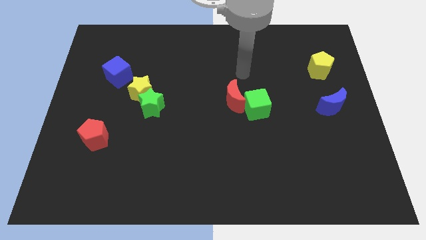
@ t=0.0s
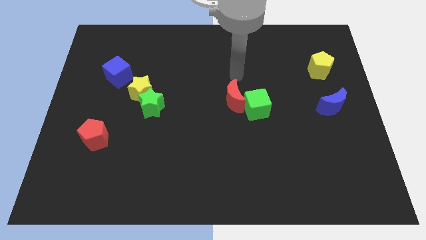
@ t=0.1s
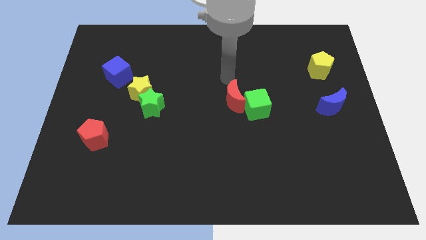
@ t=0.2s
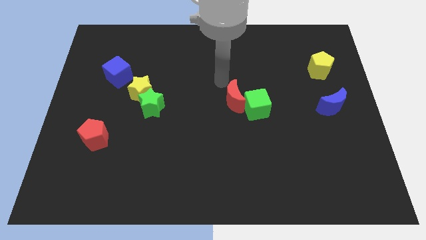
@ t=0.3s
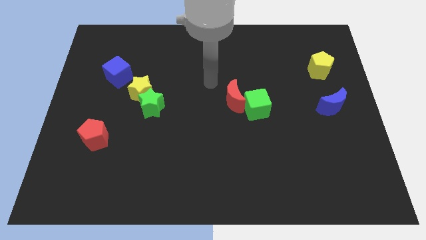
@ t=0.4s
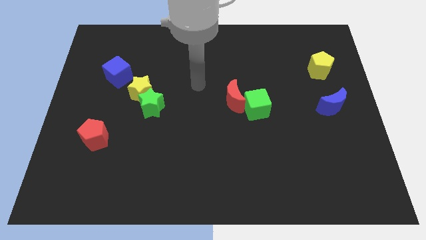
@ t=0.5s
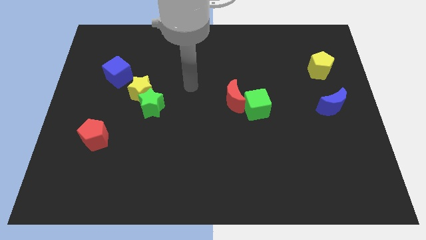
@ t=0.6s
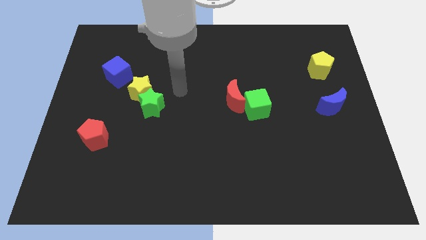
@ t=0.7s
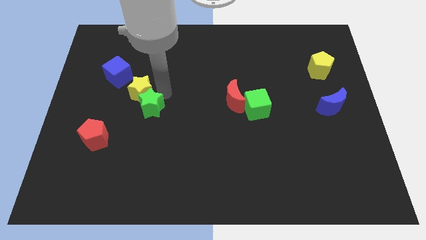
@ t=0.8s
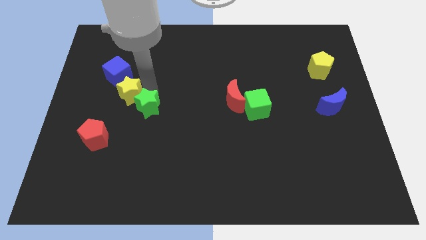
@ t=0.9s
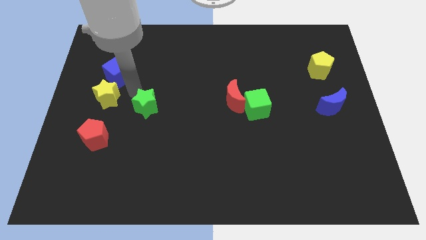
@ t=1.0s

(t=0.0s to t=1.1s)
pull the green star apart from the yellow star

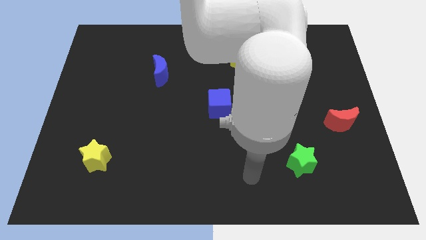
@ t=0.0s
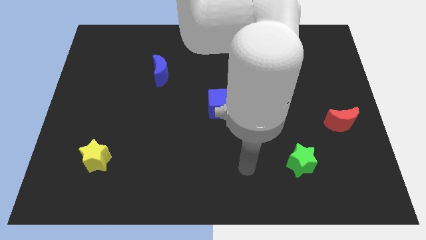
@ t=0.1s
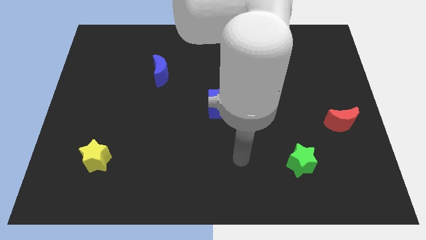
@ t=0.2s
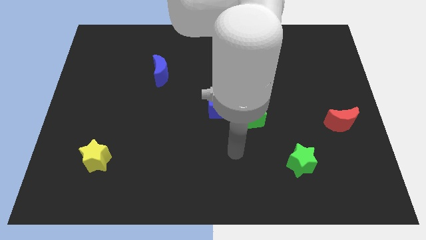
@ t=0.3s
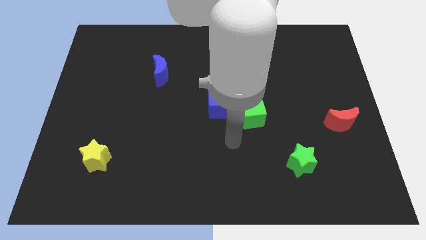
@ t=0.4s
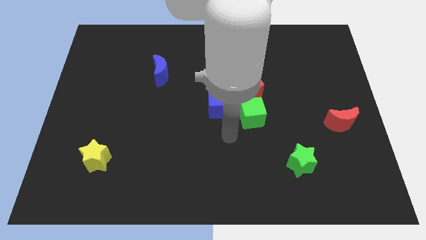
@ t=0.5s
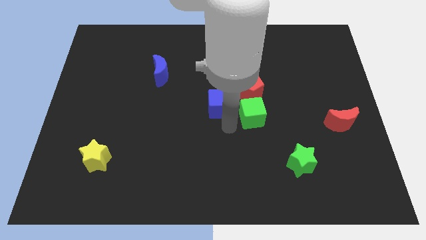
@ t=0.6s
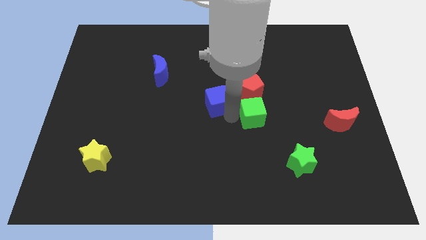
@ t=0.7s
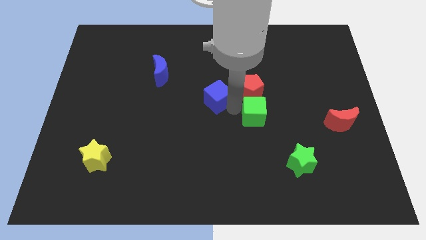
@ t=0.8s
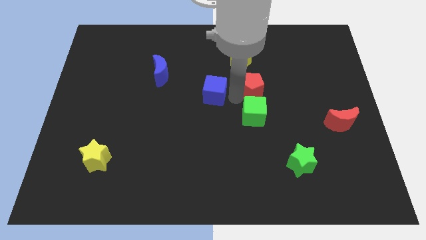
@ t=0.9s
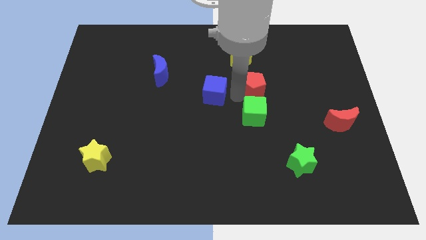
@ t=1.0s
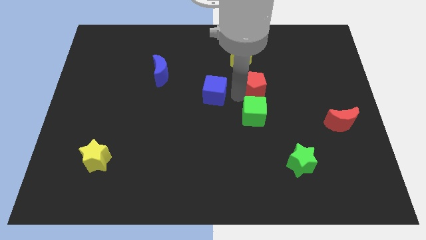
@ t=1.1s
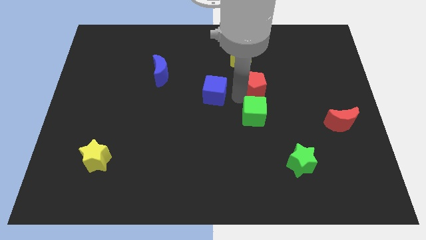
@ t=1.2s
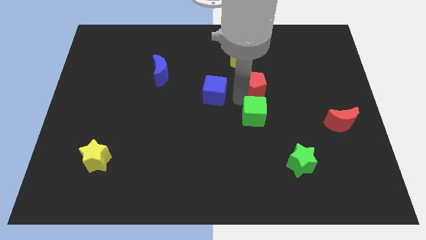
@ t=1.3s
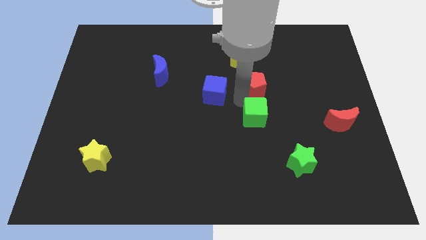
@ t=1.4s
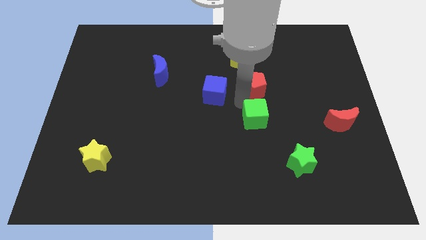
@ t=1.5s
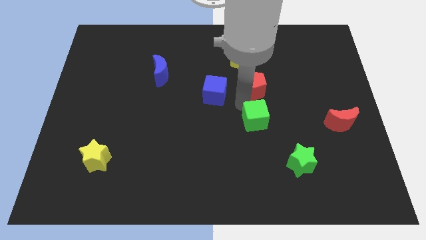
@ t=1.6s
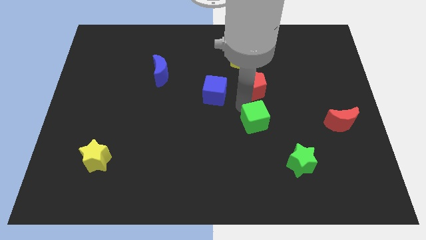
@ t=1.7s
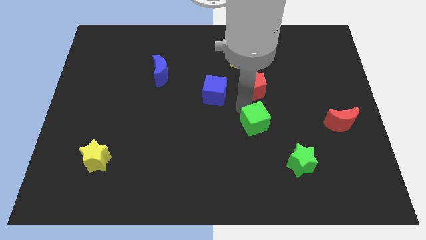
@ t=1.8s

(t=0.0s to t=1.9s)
separate the green cube from the red pentagon and blue cube

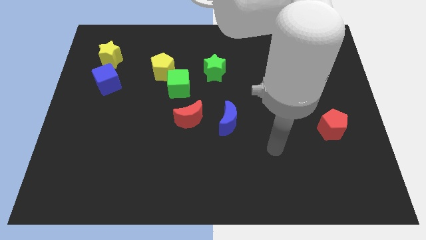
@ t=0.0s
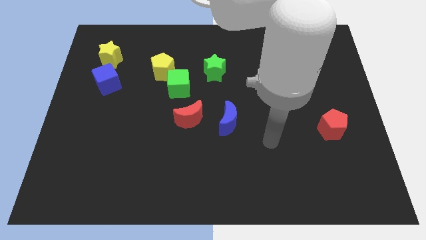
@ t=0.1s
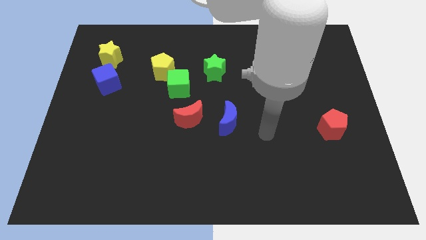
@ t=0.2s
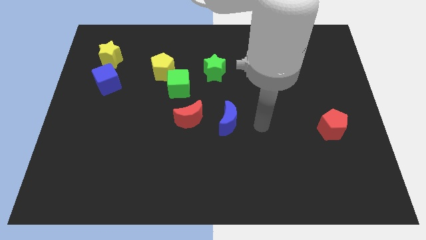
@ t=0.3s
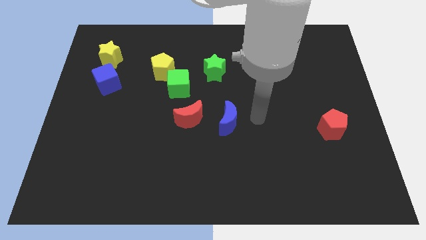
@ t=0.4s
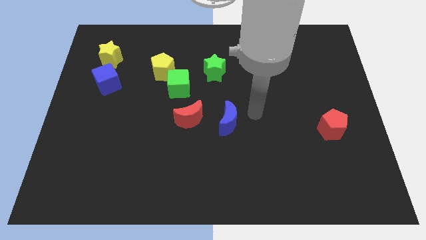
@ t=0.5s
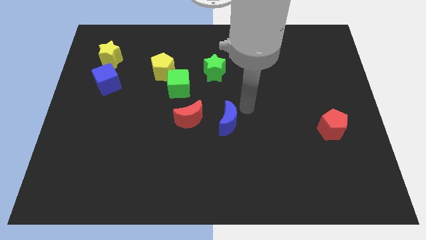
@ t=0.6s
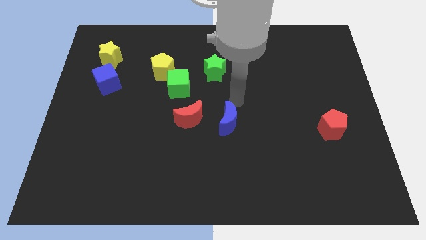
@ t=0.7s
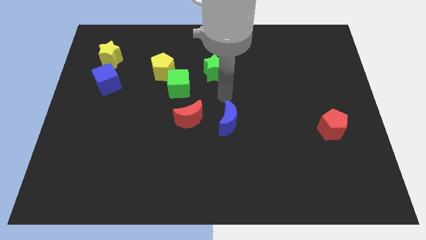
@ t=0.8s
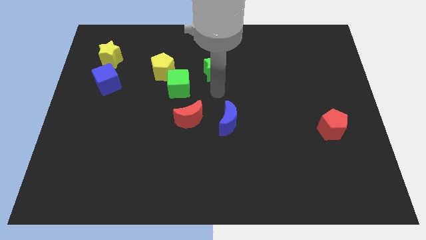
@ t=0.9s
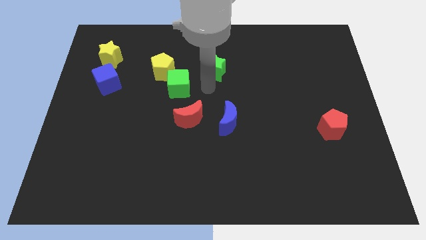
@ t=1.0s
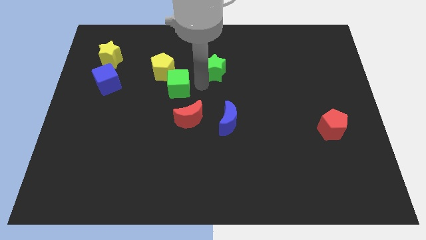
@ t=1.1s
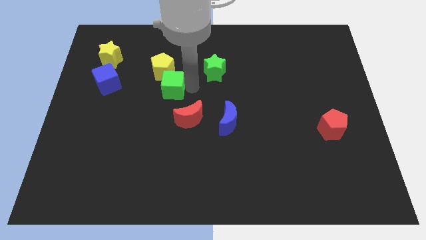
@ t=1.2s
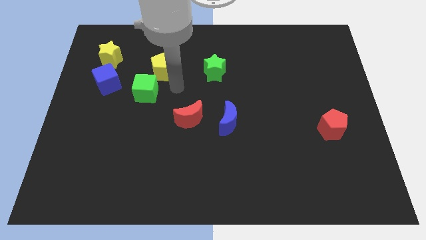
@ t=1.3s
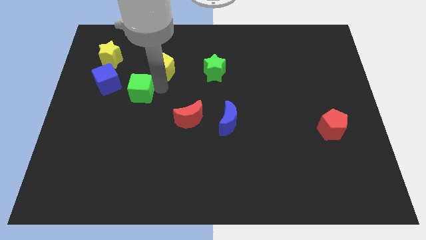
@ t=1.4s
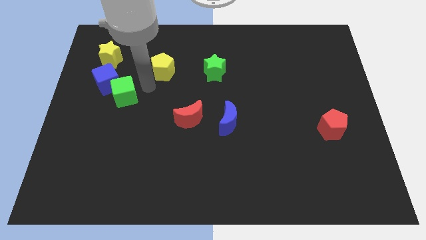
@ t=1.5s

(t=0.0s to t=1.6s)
move the yellow pentagon away from the green cube

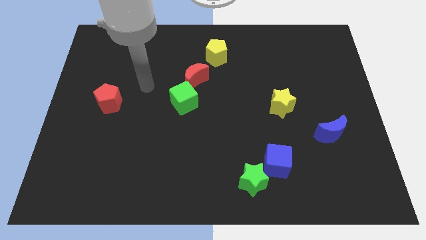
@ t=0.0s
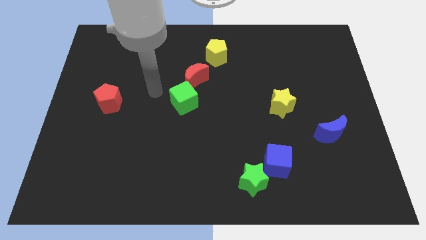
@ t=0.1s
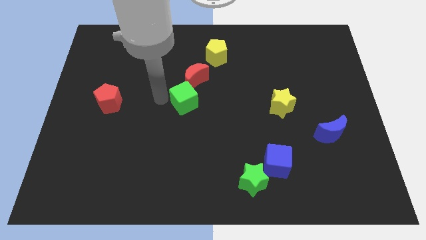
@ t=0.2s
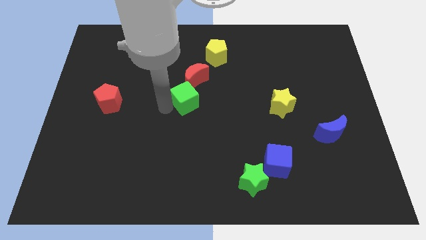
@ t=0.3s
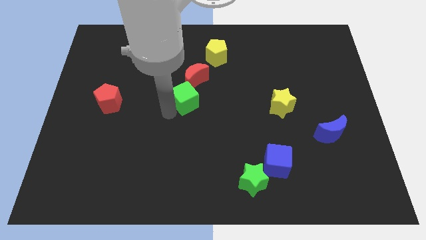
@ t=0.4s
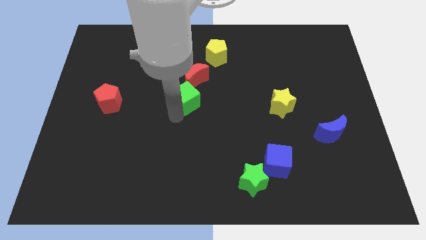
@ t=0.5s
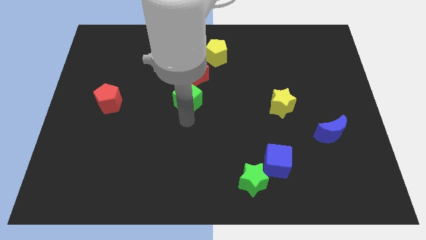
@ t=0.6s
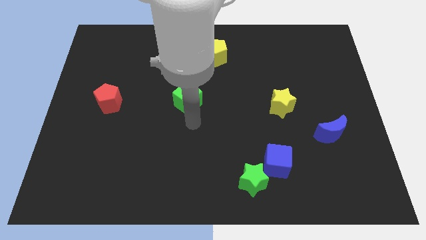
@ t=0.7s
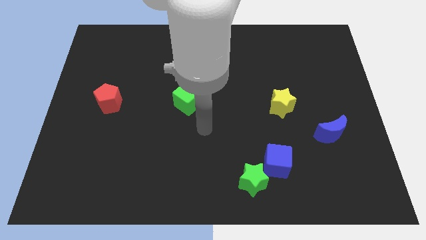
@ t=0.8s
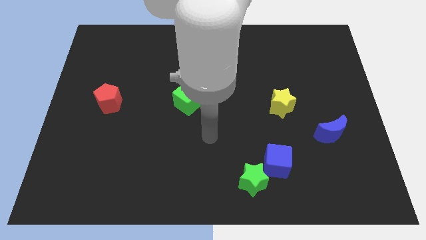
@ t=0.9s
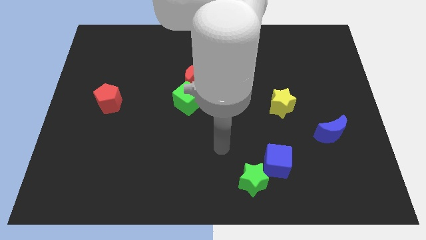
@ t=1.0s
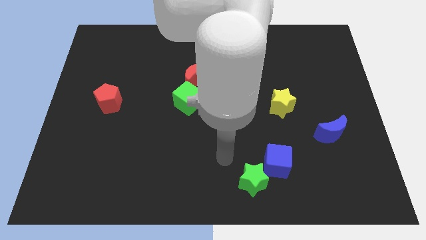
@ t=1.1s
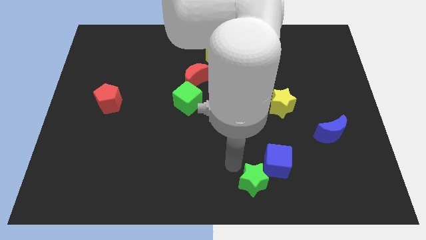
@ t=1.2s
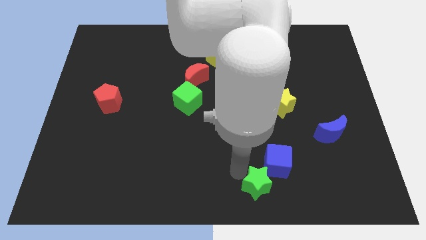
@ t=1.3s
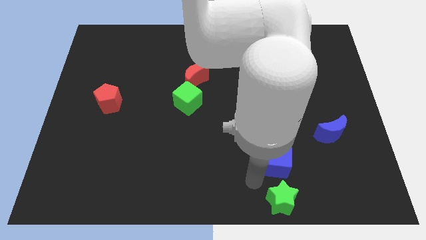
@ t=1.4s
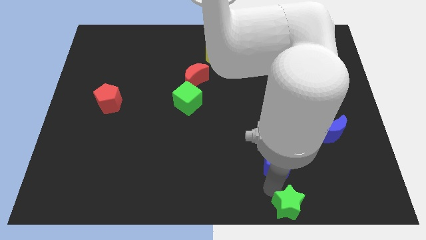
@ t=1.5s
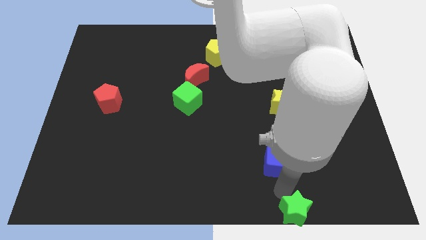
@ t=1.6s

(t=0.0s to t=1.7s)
move the blue cube away from the green star

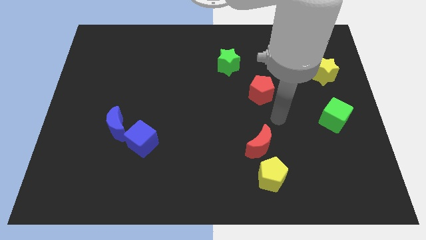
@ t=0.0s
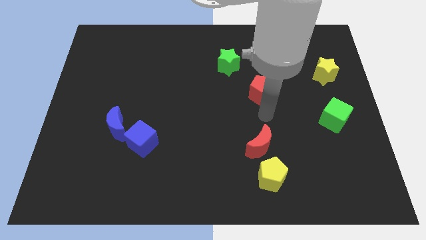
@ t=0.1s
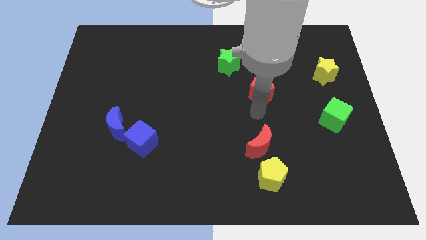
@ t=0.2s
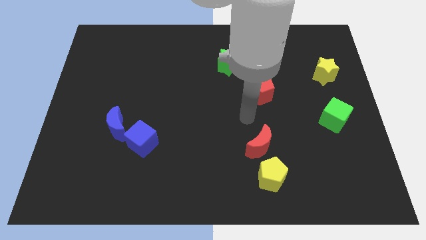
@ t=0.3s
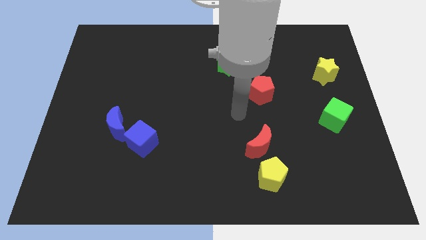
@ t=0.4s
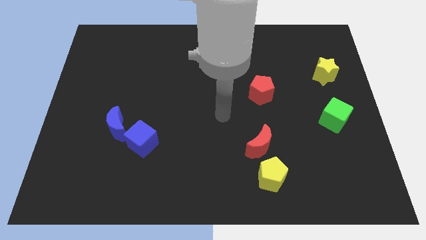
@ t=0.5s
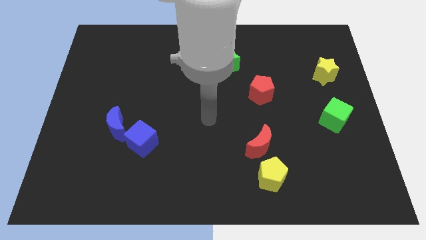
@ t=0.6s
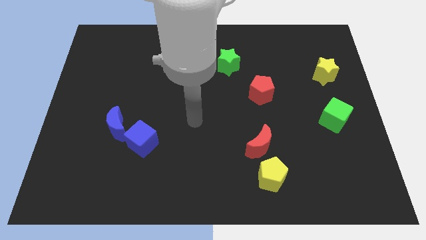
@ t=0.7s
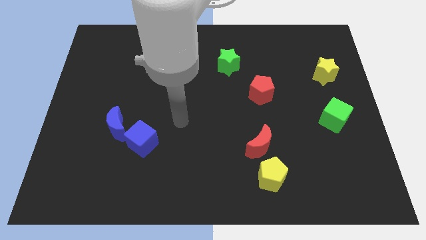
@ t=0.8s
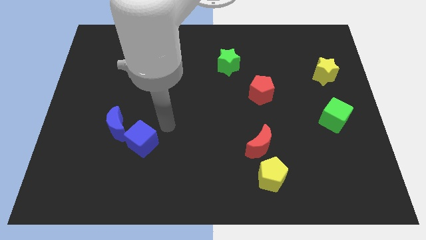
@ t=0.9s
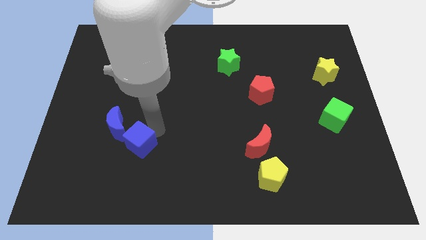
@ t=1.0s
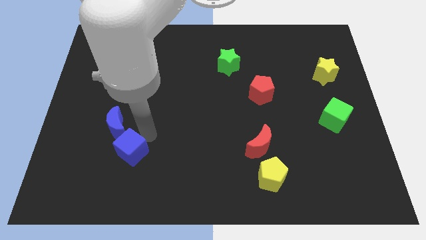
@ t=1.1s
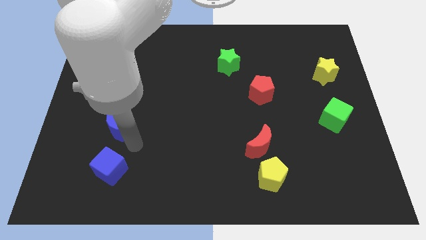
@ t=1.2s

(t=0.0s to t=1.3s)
separate the blue moon from the blue cube

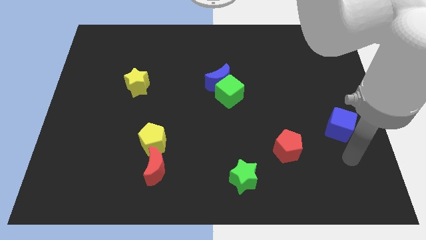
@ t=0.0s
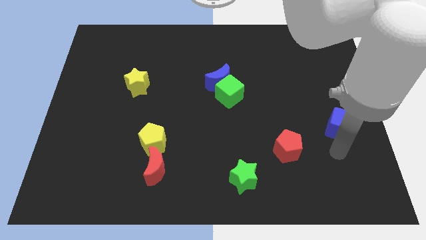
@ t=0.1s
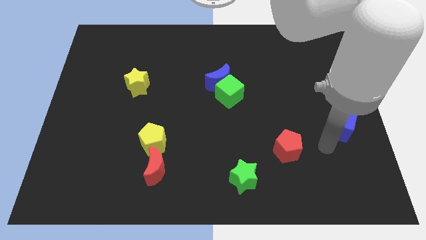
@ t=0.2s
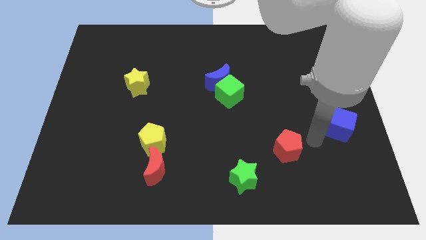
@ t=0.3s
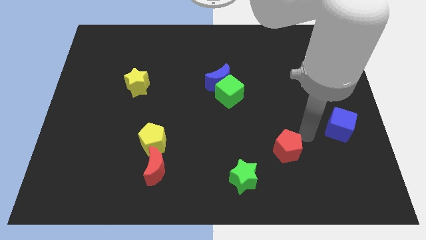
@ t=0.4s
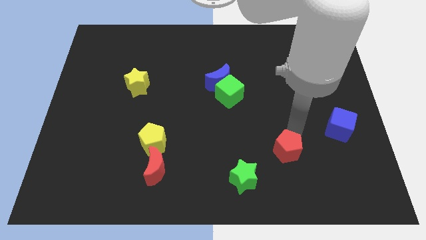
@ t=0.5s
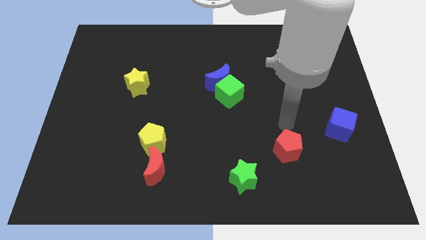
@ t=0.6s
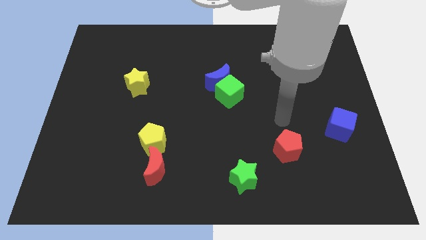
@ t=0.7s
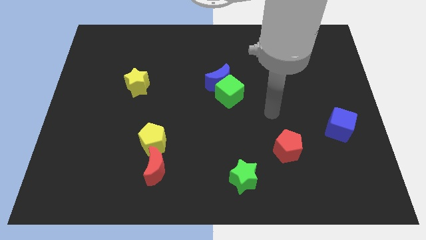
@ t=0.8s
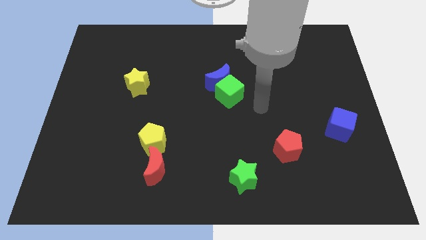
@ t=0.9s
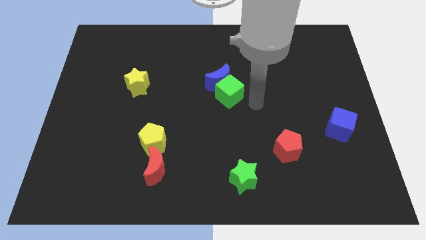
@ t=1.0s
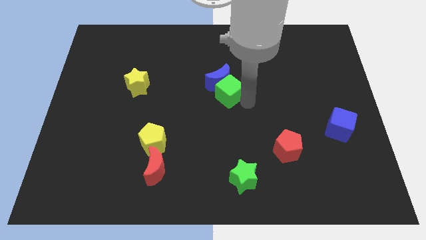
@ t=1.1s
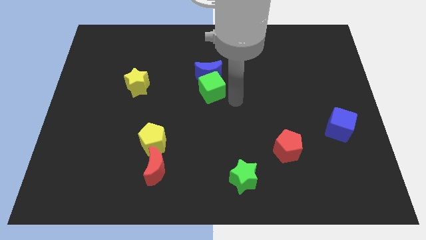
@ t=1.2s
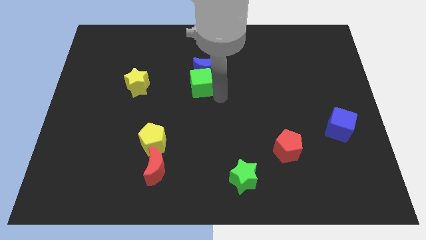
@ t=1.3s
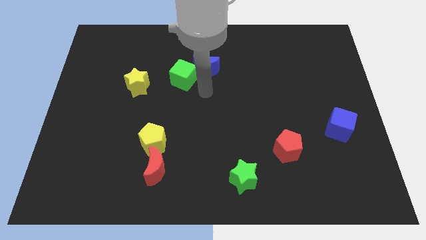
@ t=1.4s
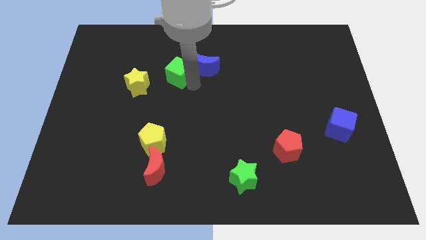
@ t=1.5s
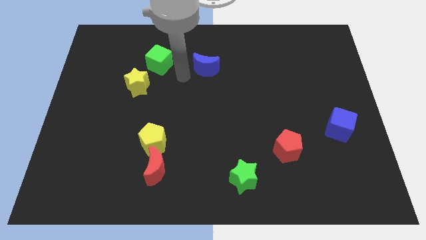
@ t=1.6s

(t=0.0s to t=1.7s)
move the blue moon away from the green cube
